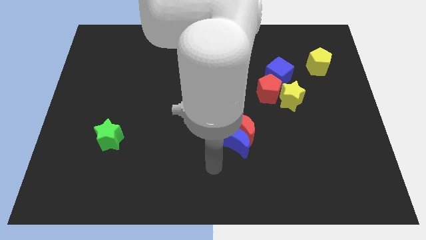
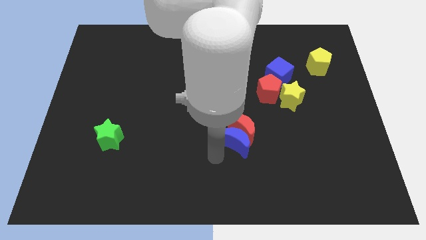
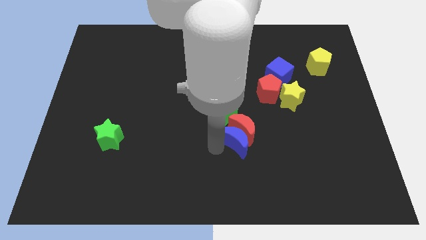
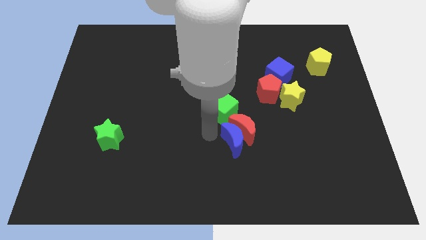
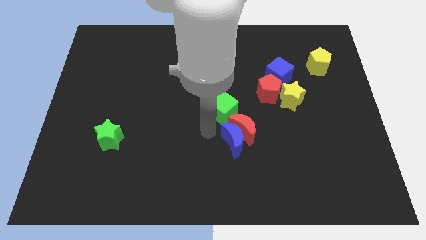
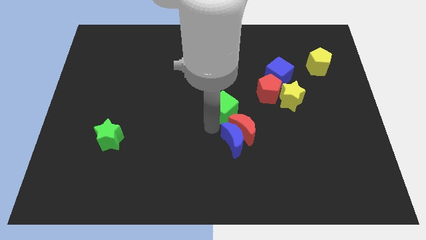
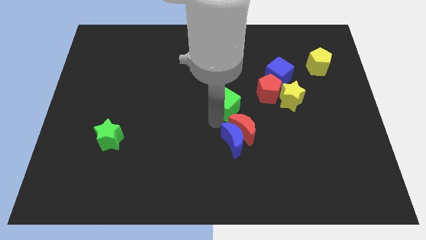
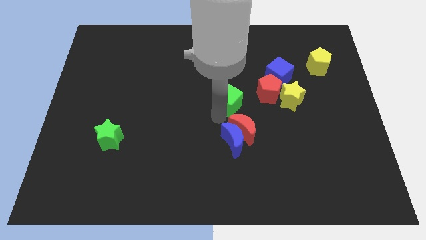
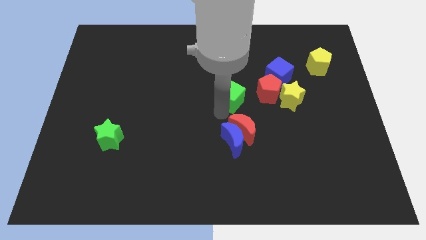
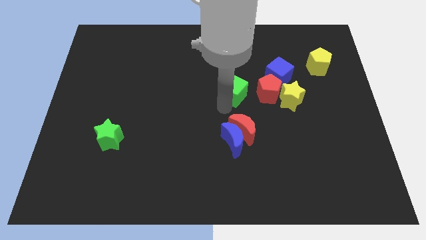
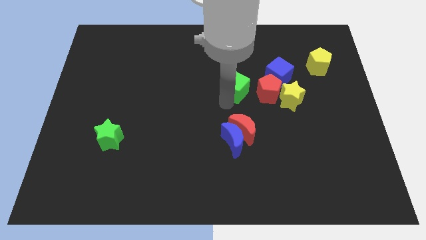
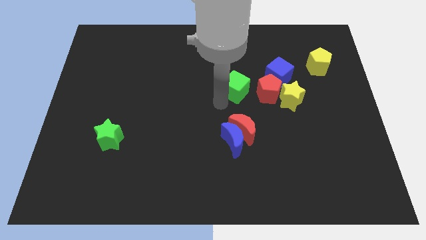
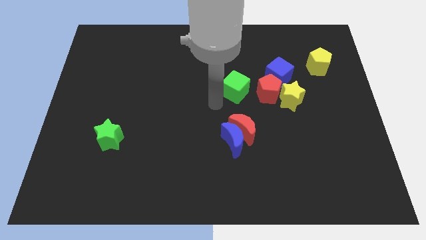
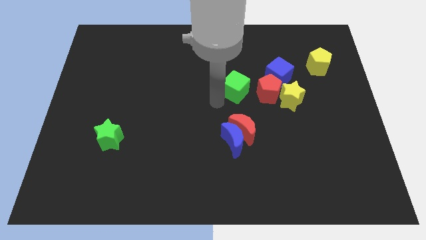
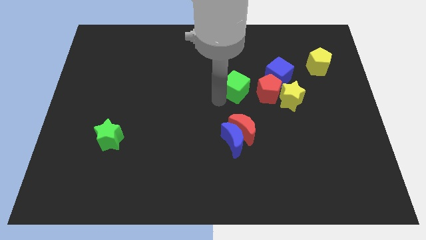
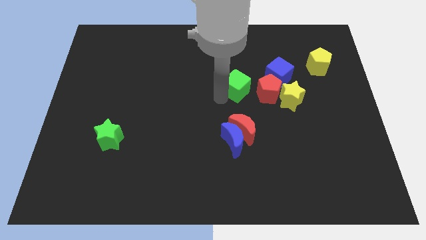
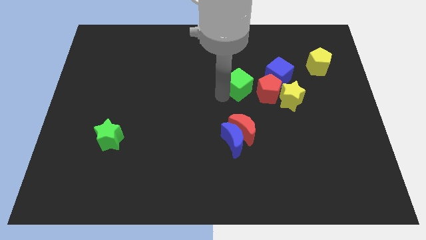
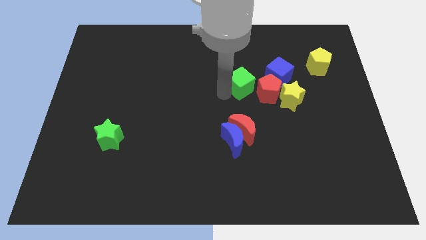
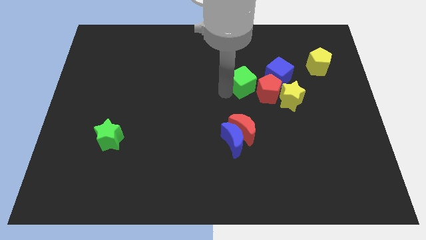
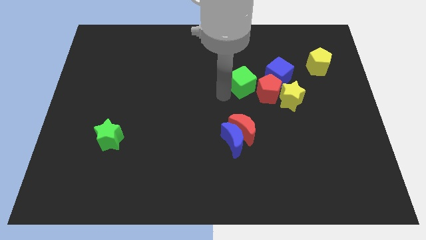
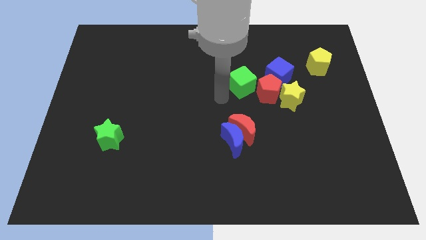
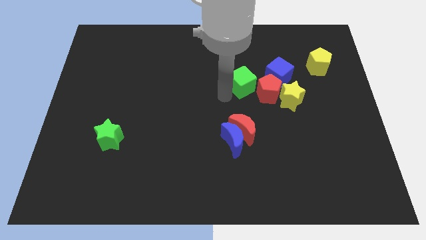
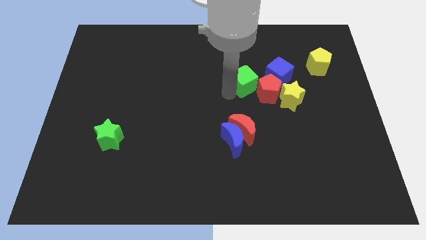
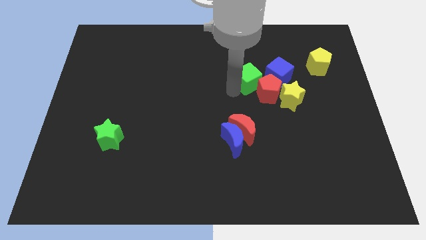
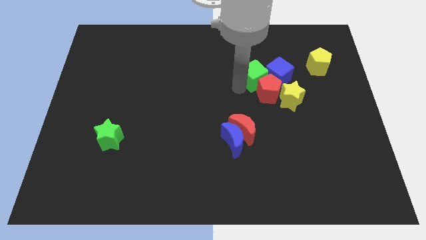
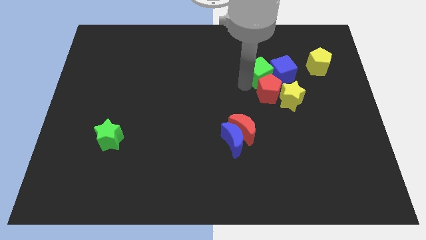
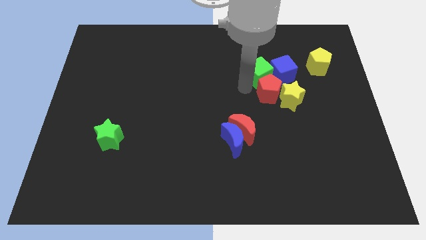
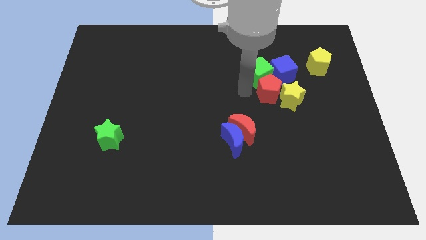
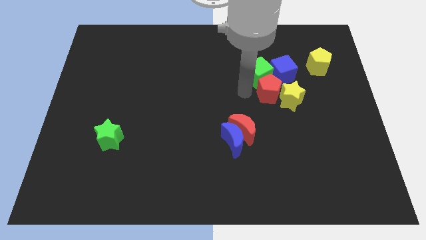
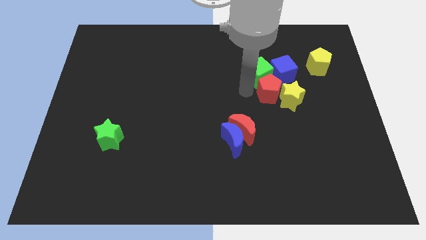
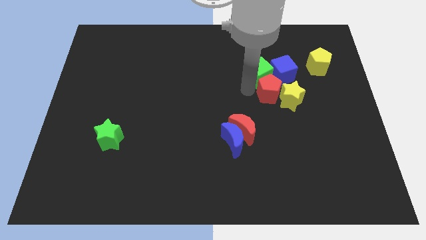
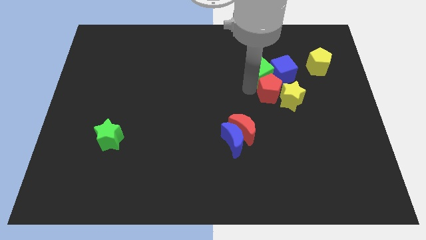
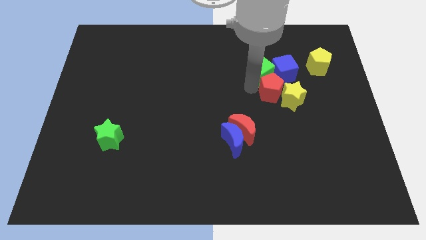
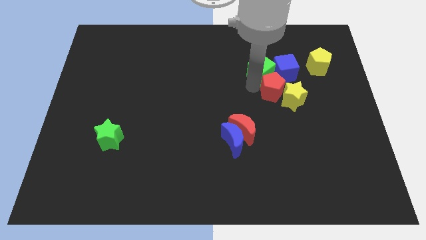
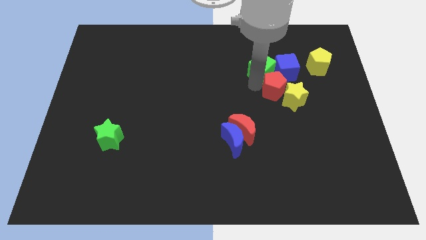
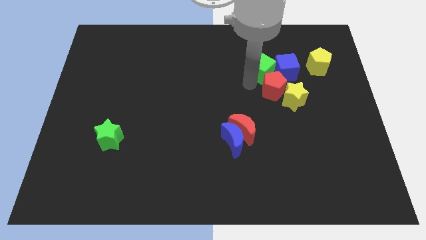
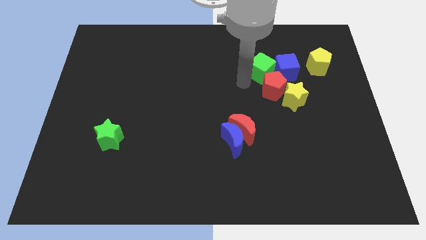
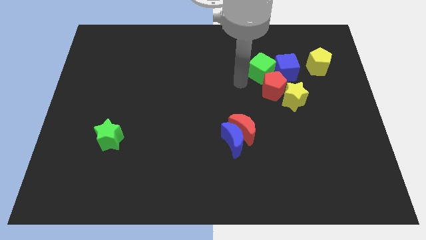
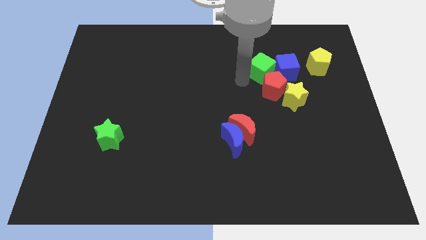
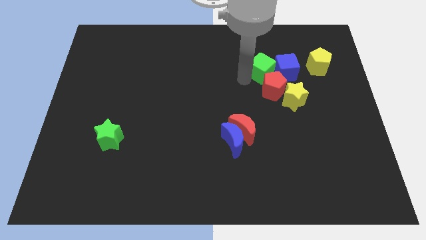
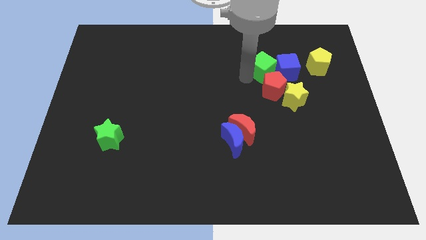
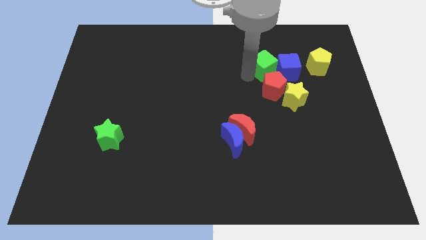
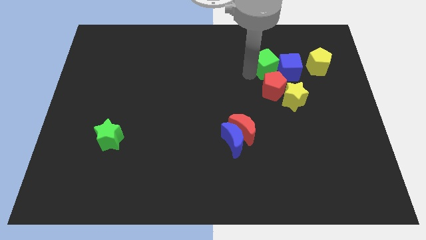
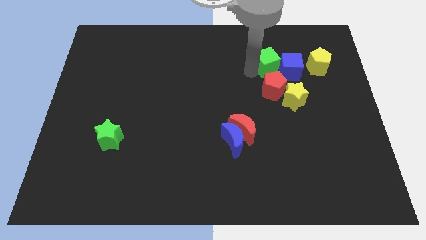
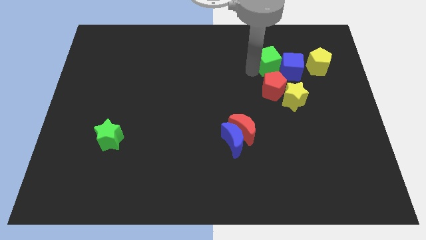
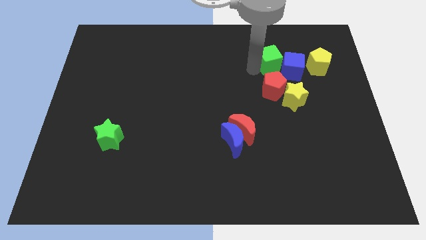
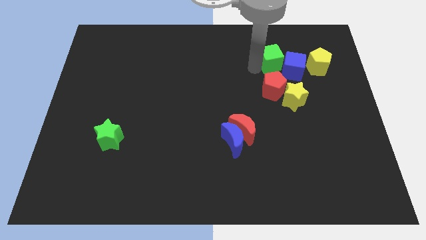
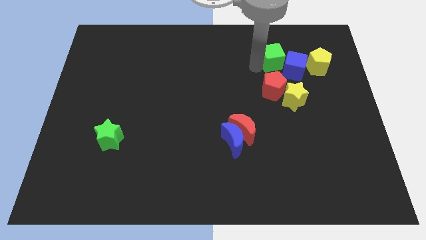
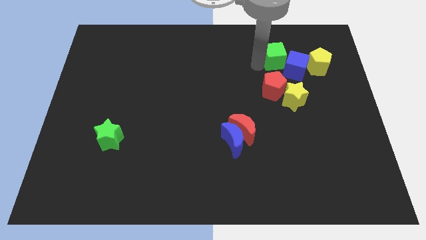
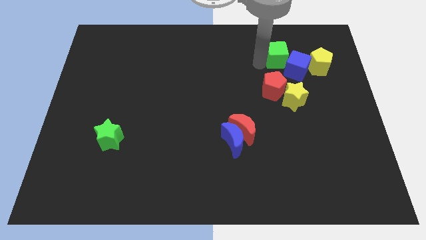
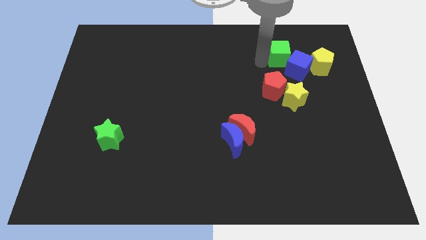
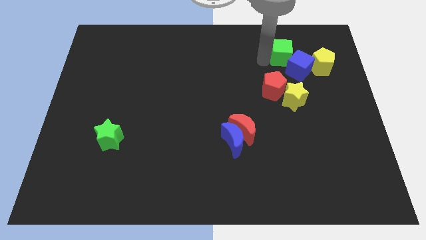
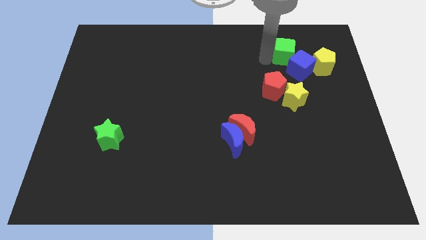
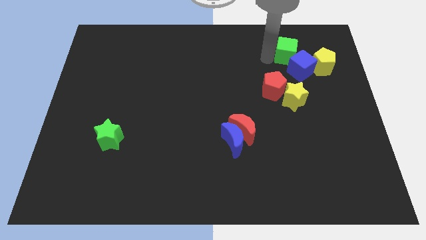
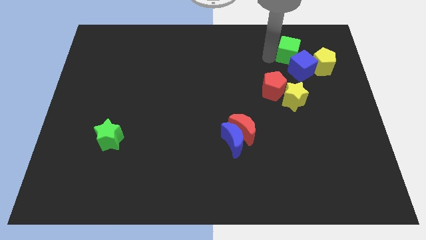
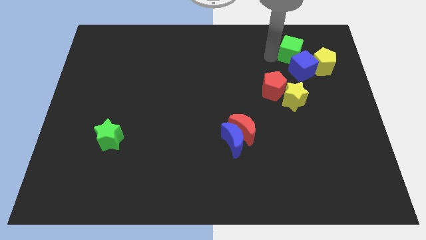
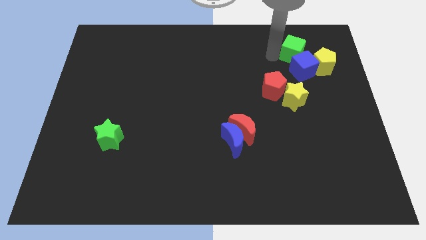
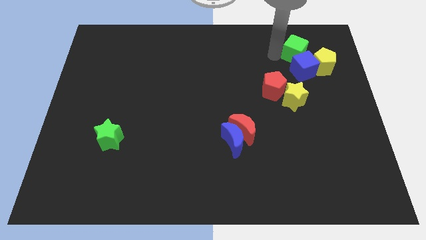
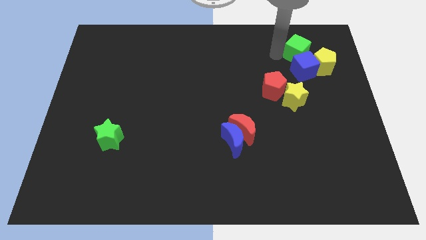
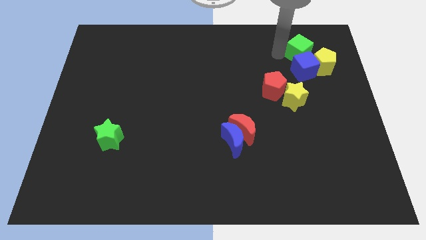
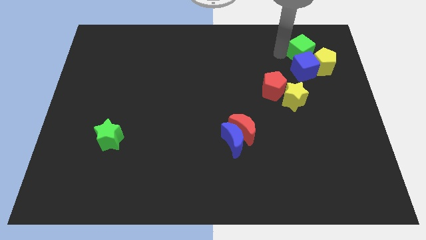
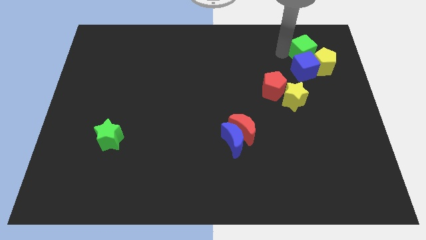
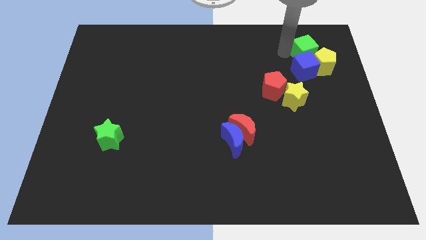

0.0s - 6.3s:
push the green cube next to the yellow pentagon
